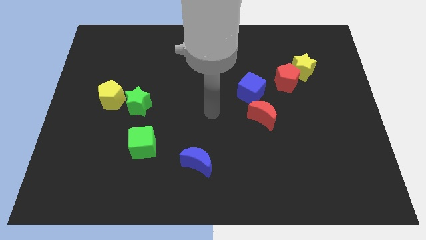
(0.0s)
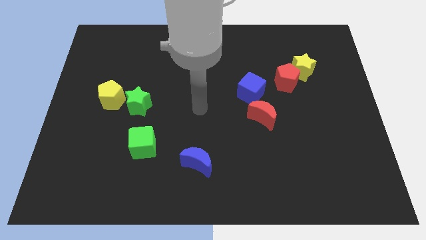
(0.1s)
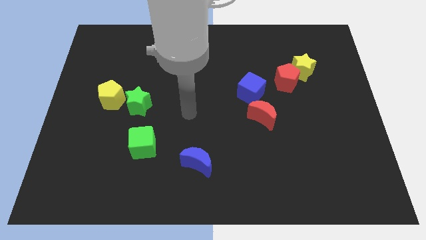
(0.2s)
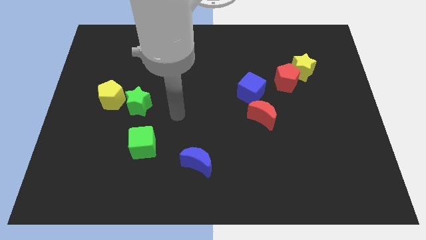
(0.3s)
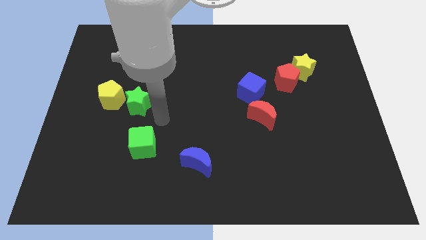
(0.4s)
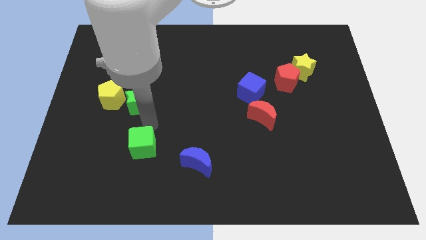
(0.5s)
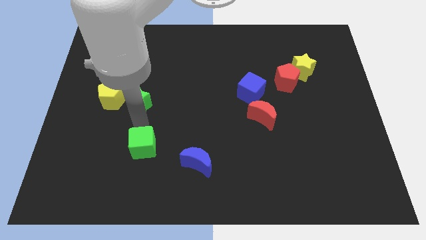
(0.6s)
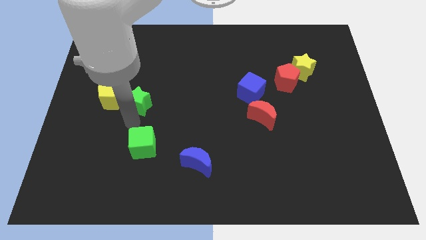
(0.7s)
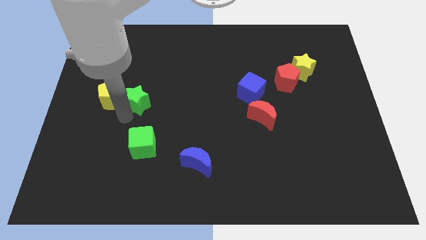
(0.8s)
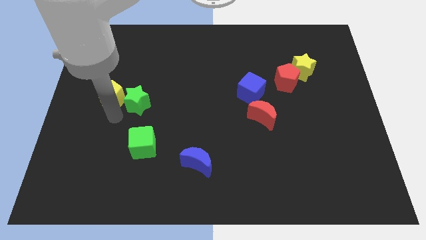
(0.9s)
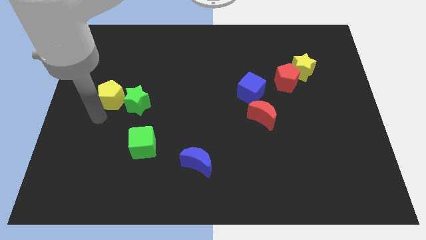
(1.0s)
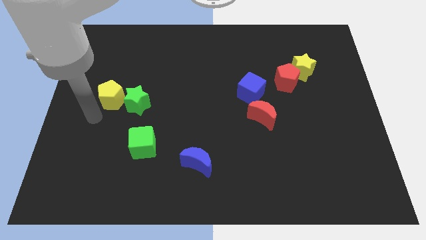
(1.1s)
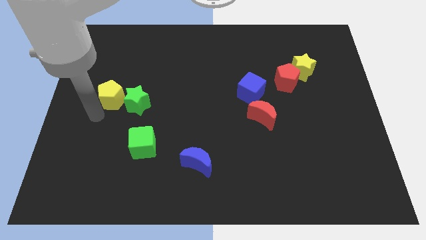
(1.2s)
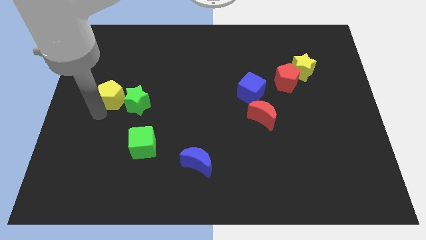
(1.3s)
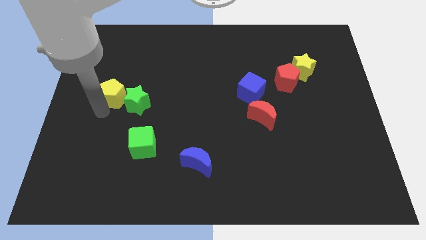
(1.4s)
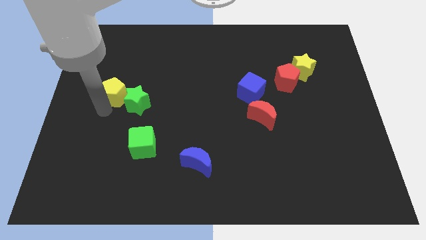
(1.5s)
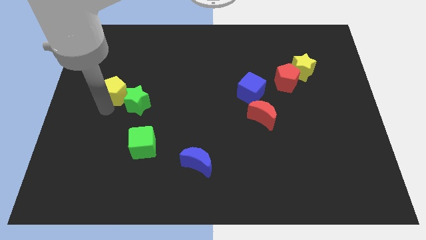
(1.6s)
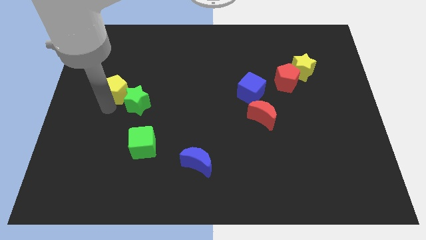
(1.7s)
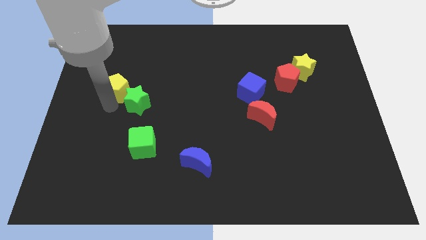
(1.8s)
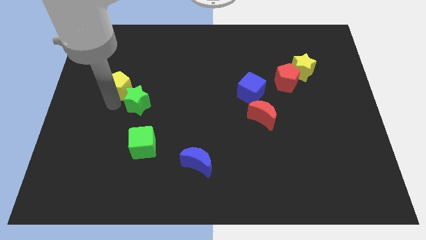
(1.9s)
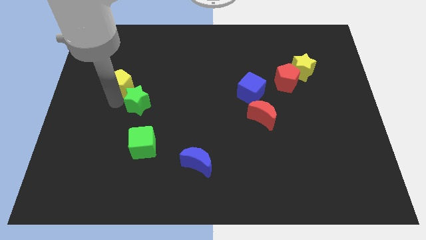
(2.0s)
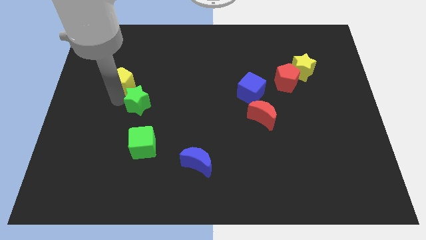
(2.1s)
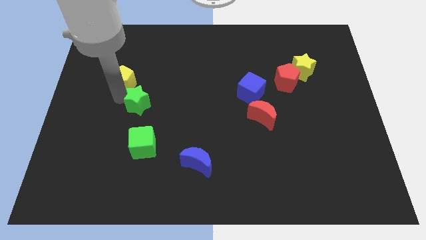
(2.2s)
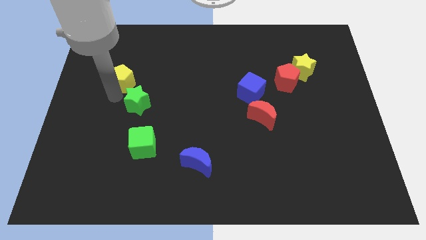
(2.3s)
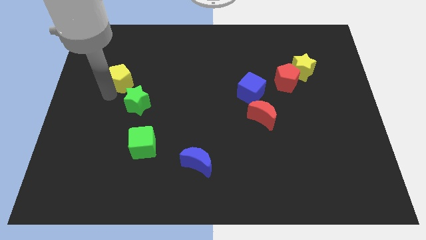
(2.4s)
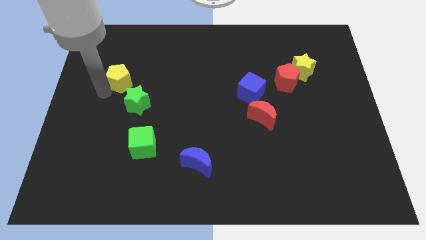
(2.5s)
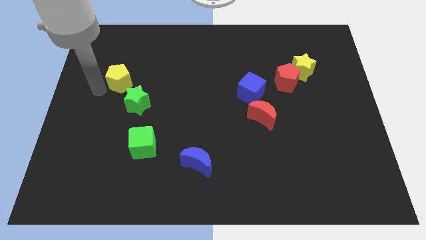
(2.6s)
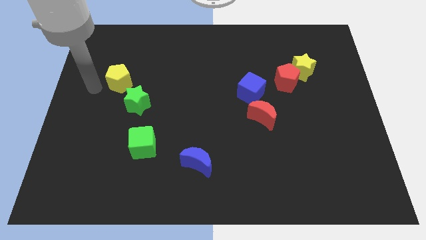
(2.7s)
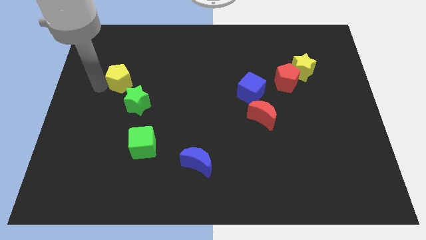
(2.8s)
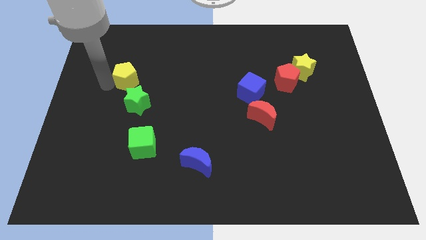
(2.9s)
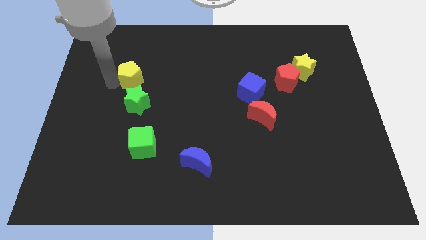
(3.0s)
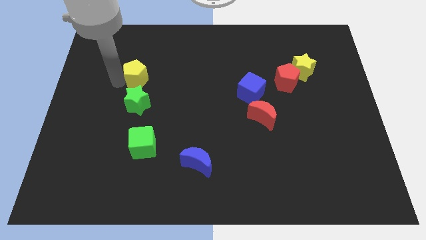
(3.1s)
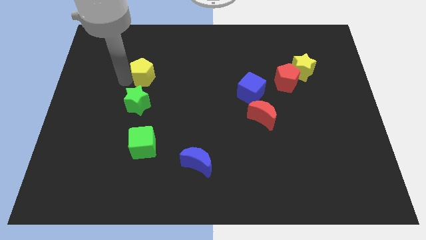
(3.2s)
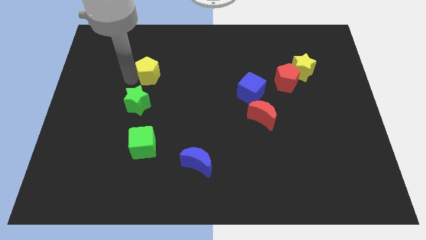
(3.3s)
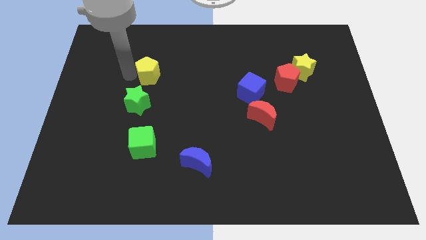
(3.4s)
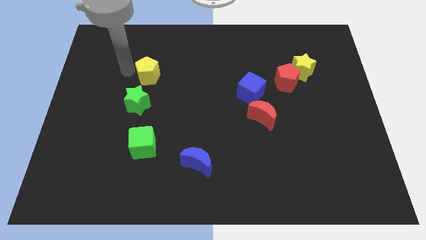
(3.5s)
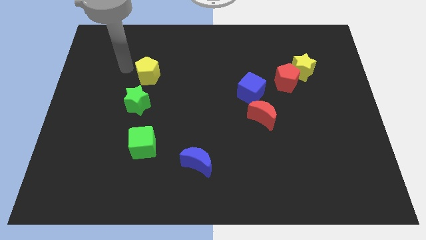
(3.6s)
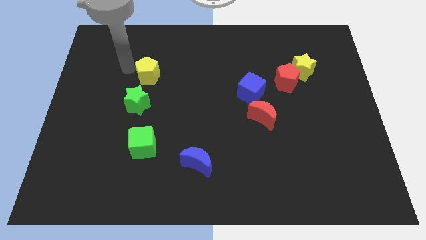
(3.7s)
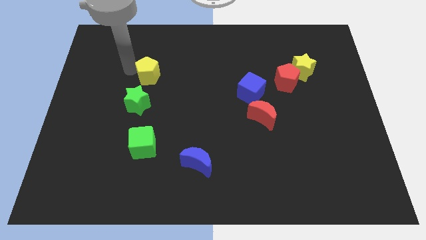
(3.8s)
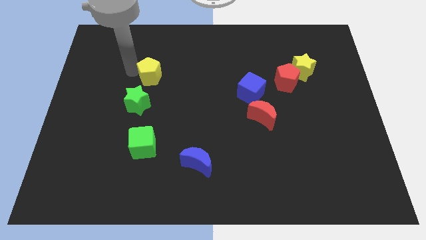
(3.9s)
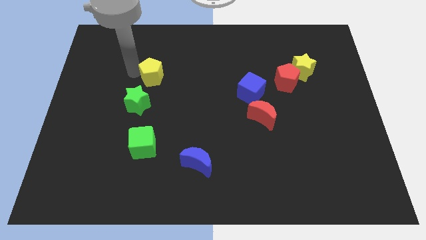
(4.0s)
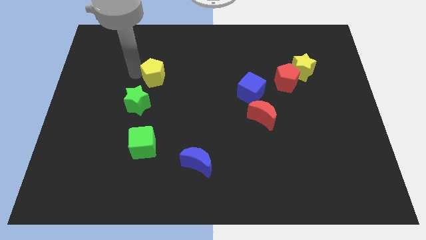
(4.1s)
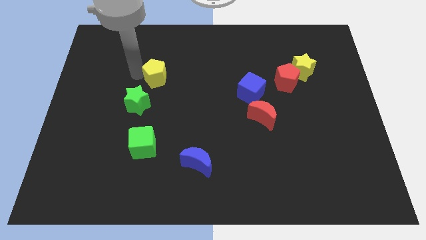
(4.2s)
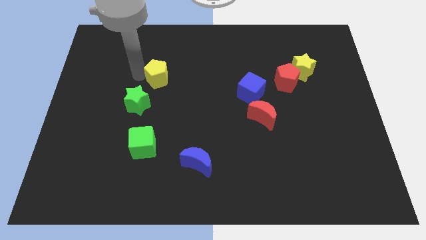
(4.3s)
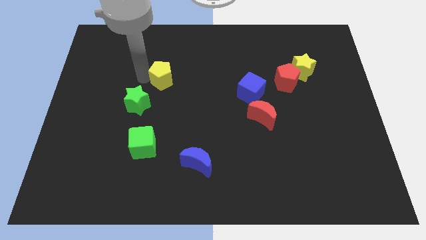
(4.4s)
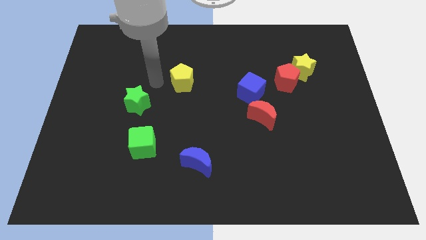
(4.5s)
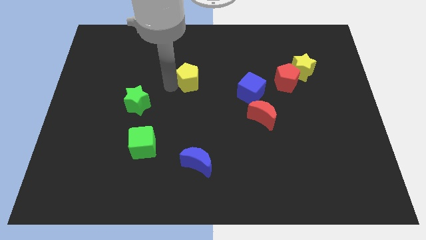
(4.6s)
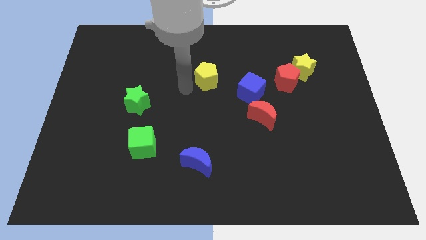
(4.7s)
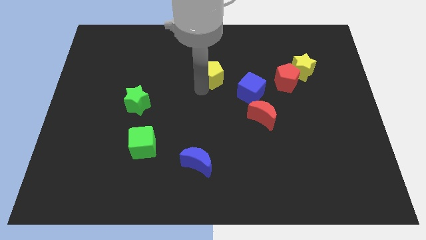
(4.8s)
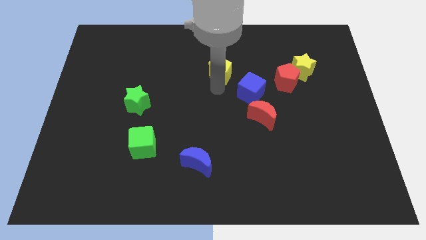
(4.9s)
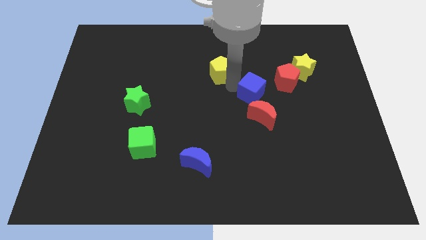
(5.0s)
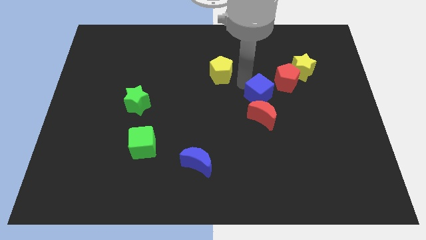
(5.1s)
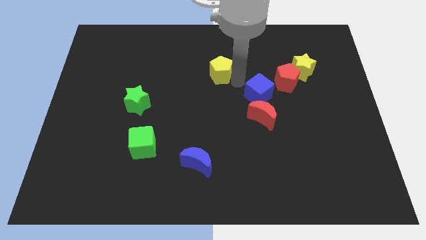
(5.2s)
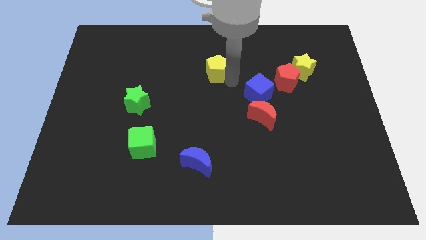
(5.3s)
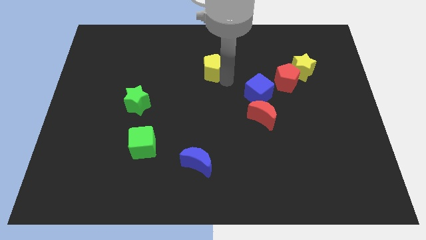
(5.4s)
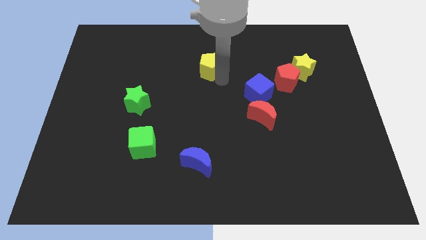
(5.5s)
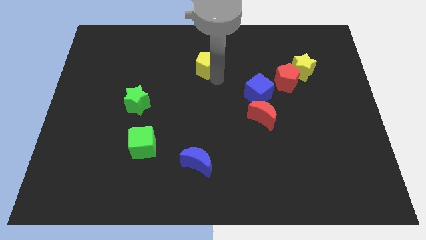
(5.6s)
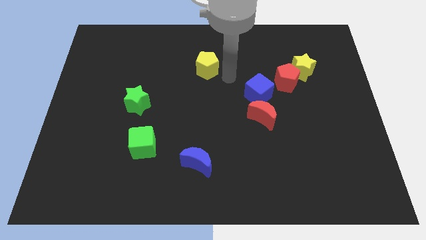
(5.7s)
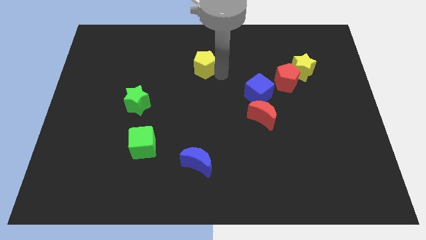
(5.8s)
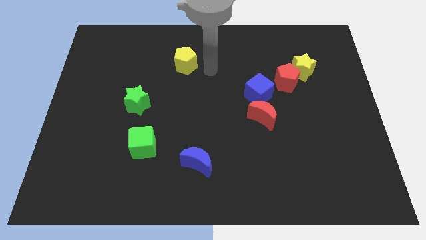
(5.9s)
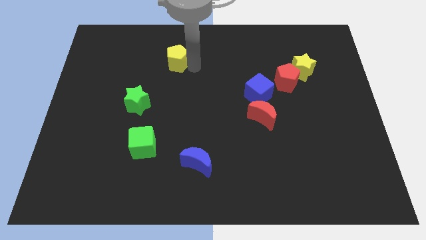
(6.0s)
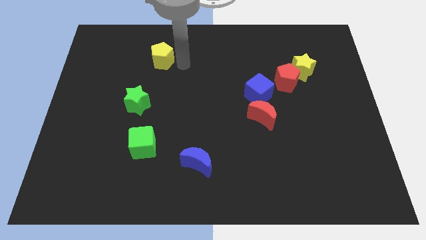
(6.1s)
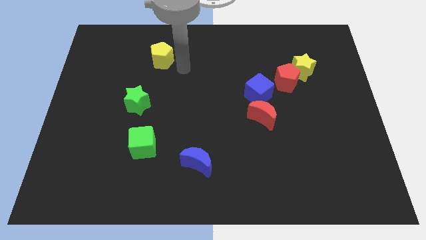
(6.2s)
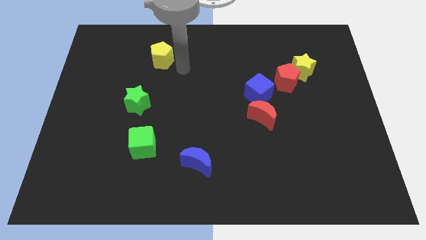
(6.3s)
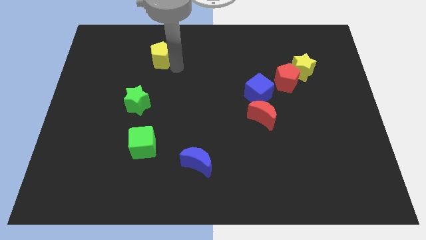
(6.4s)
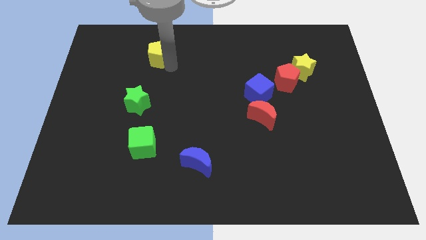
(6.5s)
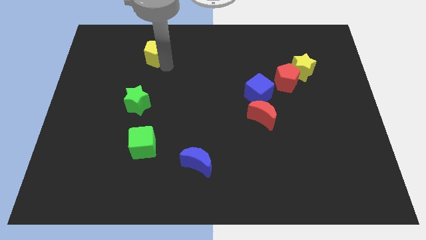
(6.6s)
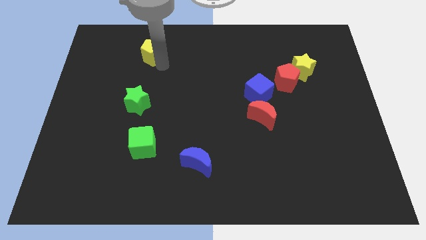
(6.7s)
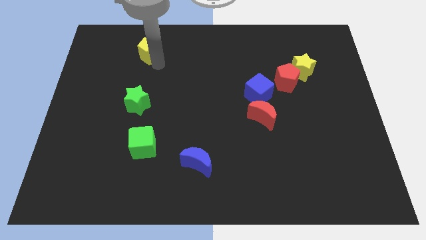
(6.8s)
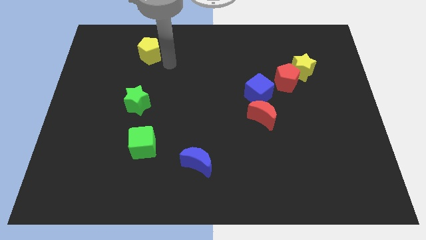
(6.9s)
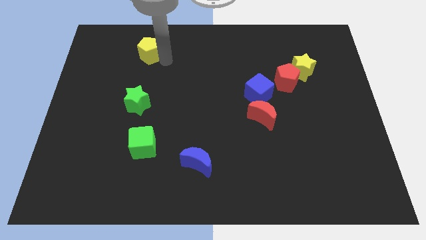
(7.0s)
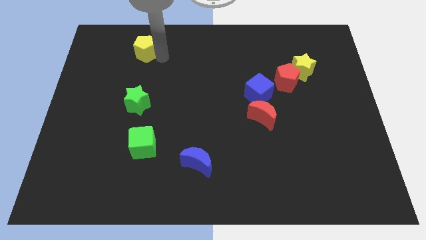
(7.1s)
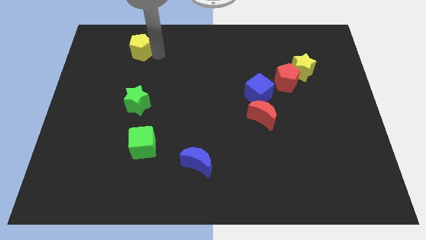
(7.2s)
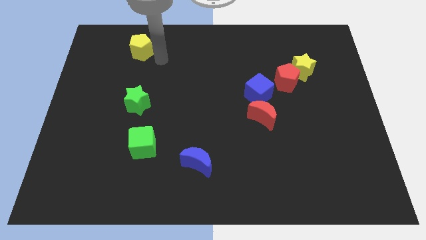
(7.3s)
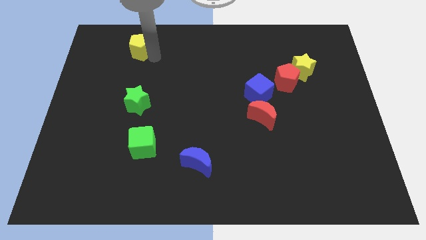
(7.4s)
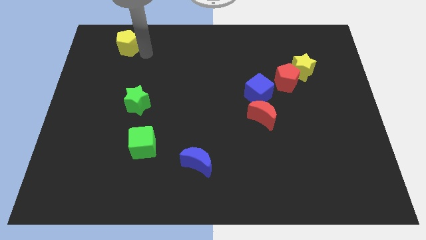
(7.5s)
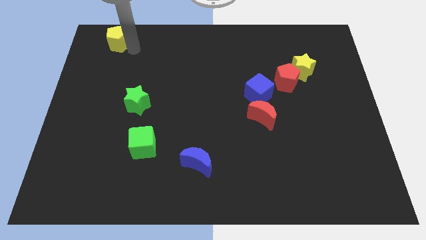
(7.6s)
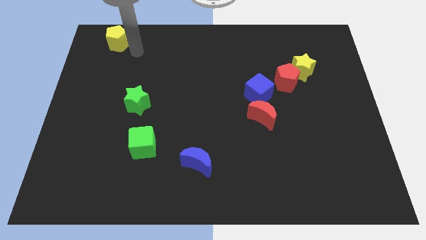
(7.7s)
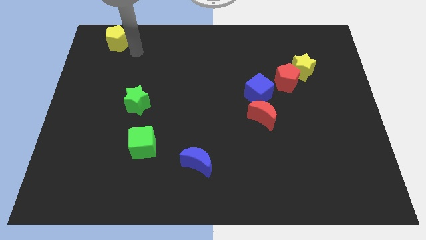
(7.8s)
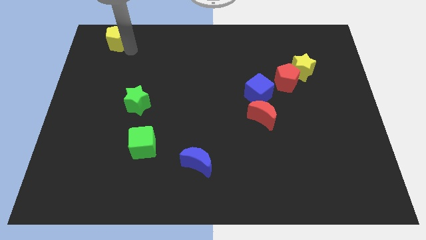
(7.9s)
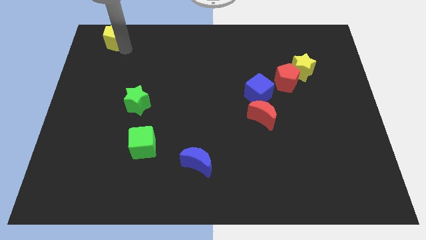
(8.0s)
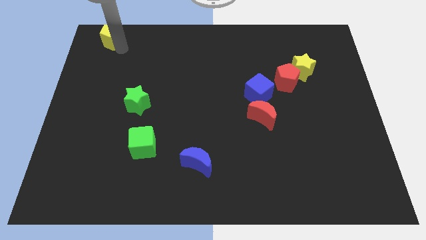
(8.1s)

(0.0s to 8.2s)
move the yellow pentagon to the upper left corner
